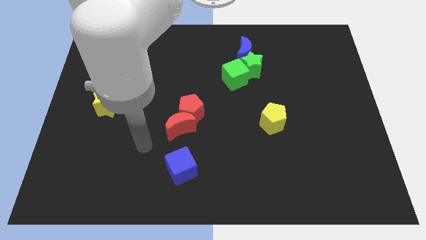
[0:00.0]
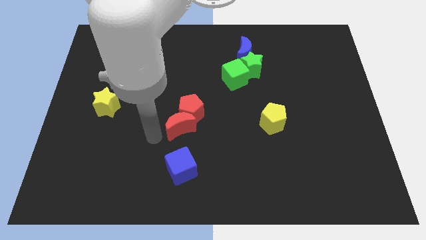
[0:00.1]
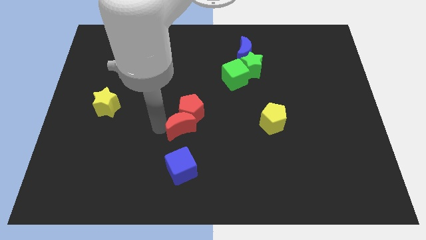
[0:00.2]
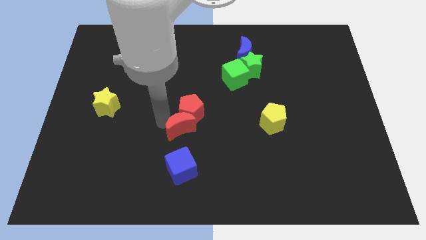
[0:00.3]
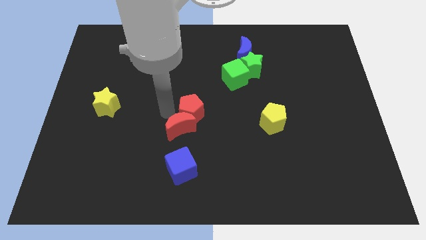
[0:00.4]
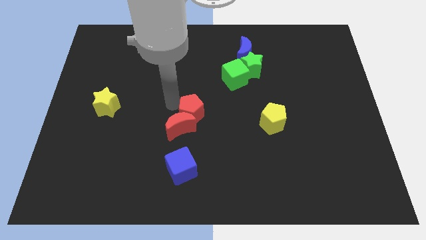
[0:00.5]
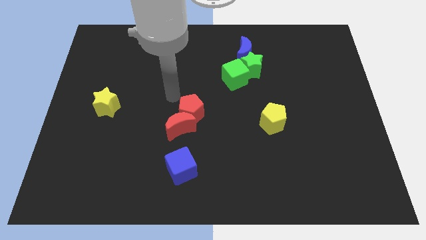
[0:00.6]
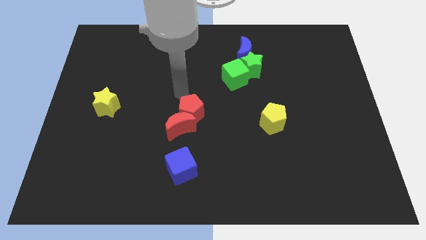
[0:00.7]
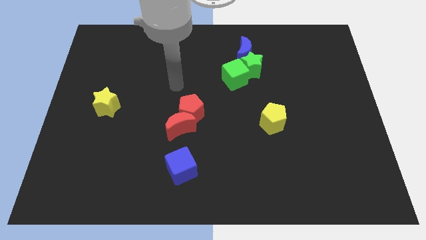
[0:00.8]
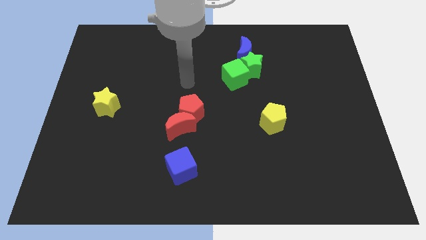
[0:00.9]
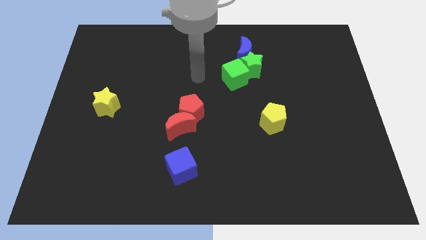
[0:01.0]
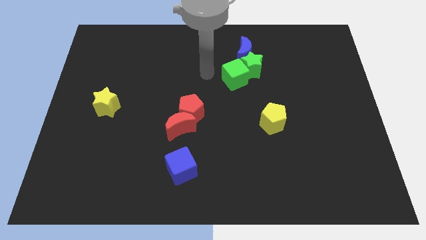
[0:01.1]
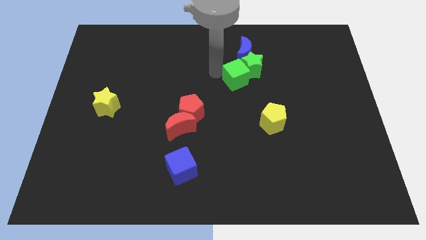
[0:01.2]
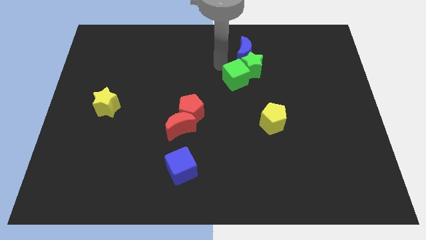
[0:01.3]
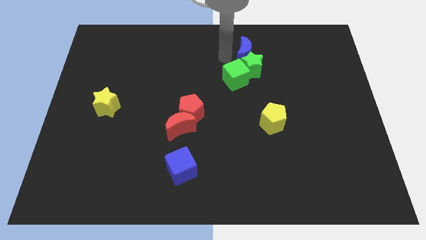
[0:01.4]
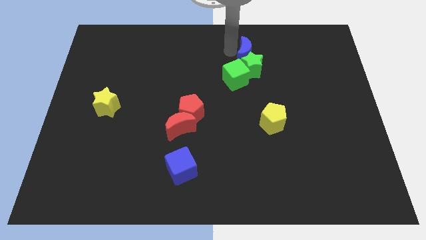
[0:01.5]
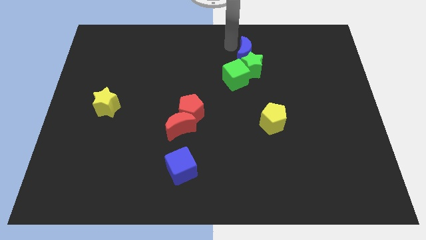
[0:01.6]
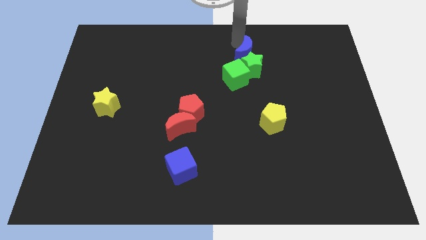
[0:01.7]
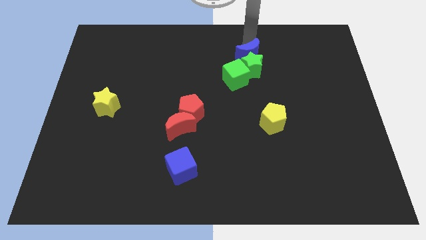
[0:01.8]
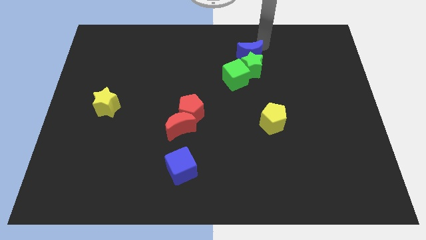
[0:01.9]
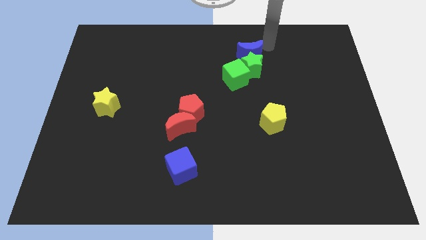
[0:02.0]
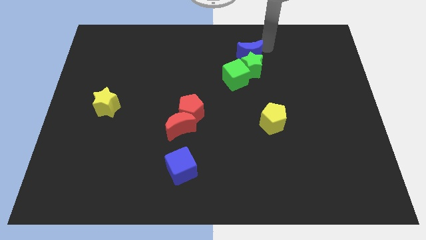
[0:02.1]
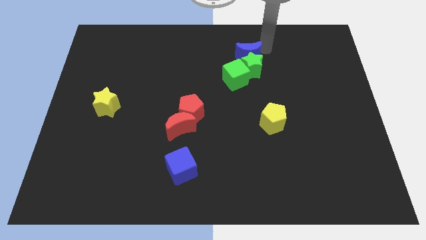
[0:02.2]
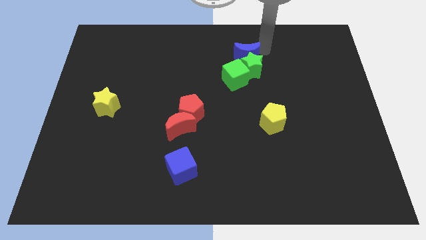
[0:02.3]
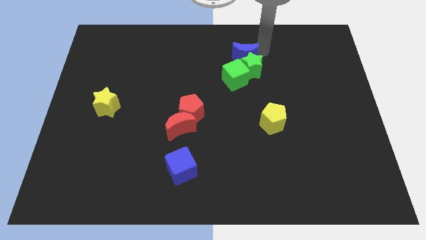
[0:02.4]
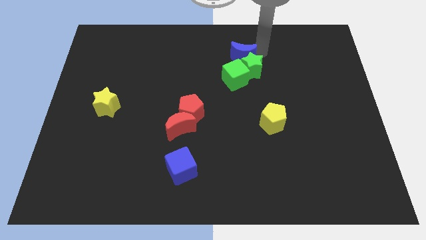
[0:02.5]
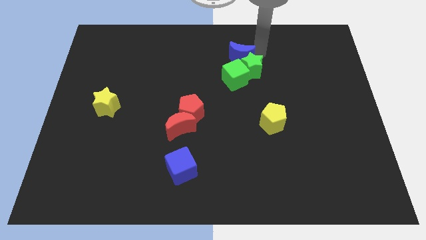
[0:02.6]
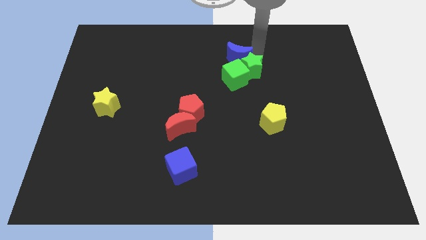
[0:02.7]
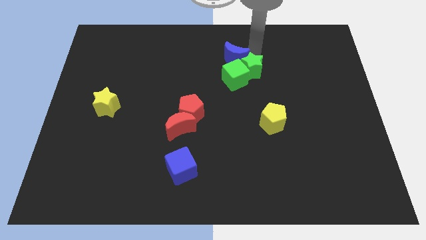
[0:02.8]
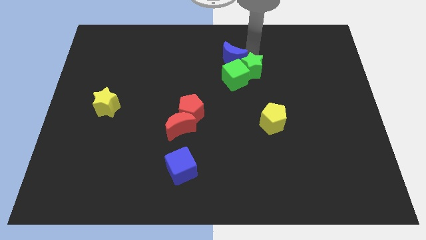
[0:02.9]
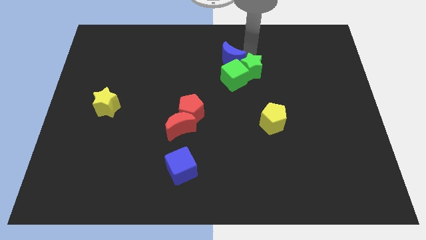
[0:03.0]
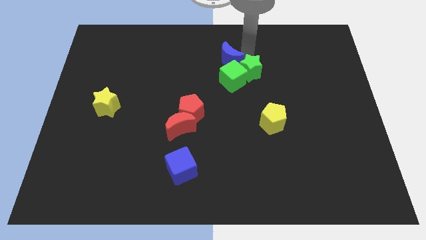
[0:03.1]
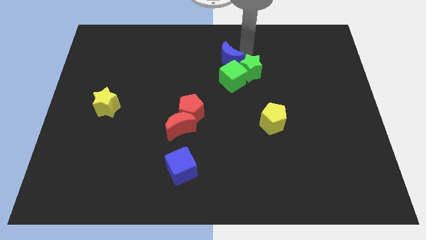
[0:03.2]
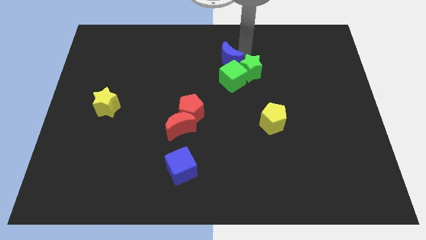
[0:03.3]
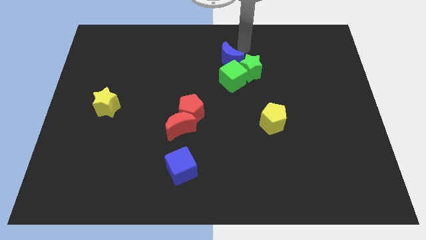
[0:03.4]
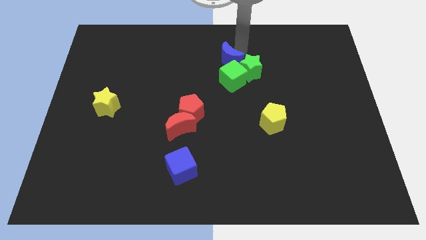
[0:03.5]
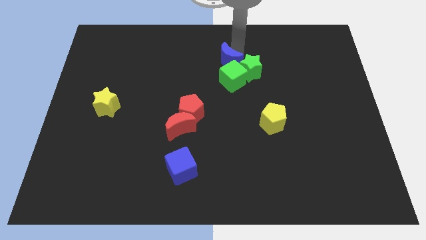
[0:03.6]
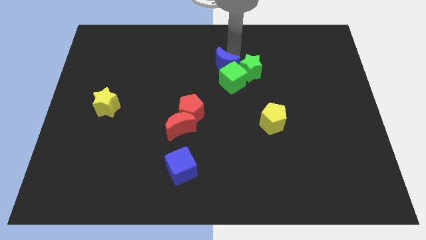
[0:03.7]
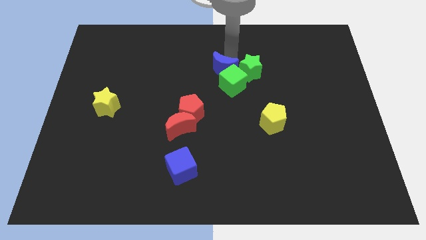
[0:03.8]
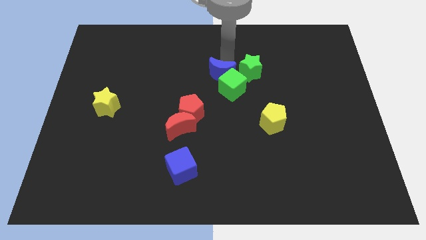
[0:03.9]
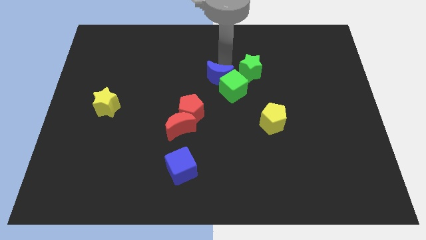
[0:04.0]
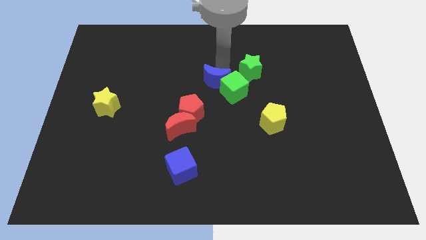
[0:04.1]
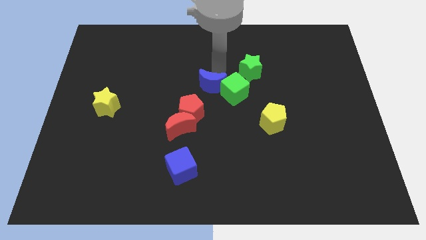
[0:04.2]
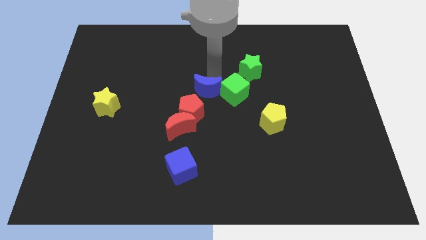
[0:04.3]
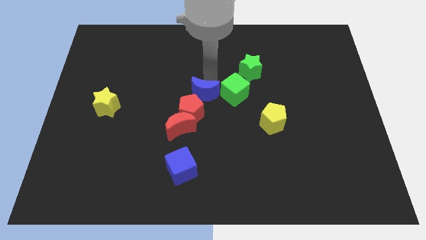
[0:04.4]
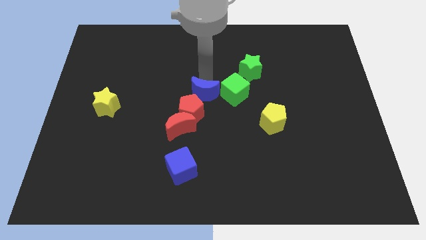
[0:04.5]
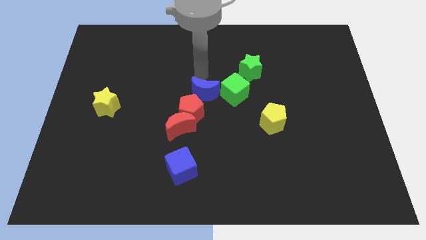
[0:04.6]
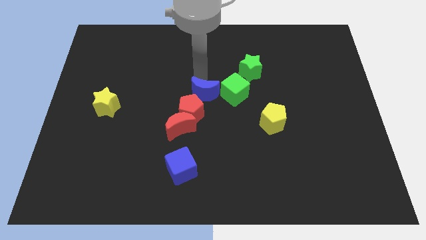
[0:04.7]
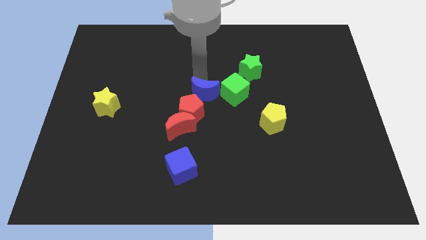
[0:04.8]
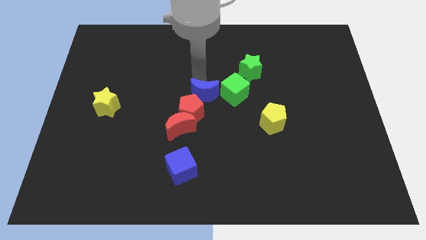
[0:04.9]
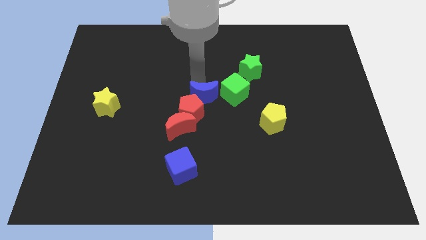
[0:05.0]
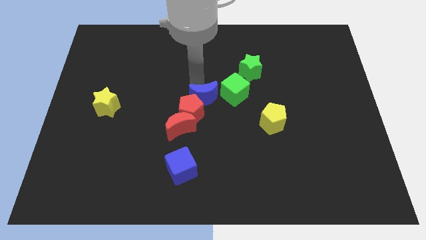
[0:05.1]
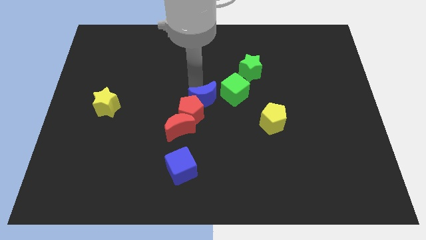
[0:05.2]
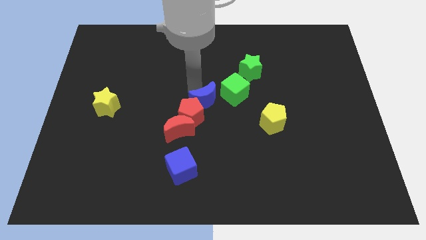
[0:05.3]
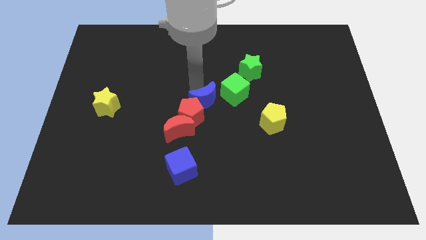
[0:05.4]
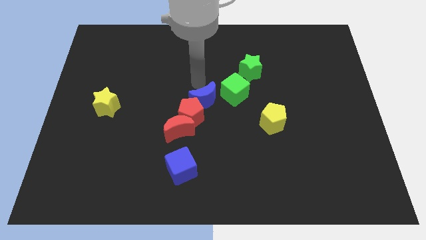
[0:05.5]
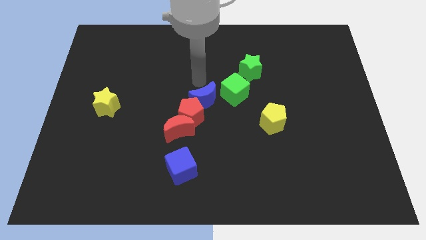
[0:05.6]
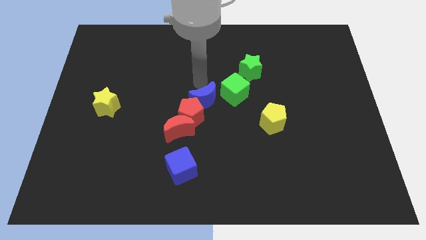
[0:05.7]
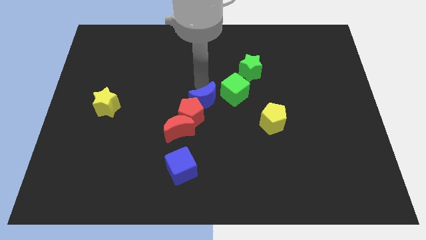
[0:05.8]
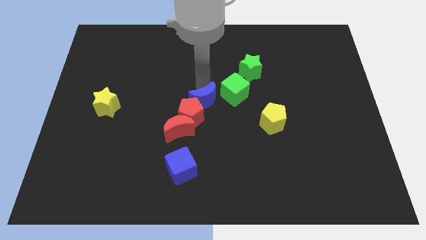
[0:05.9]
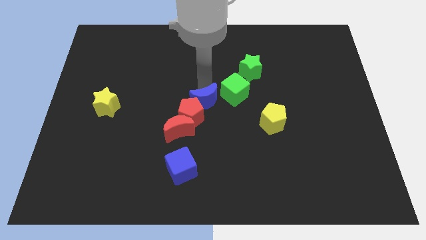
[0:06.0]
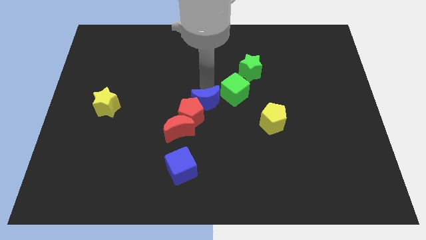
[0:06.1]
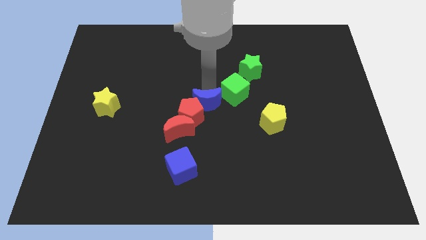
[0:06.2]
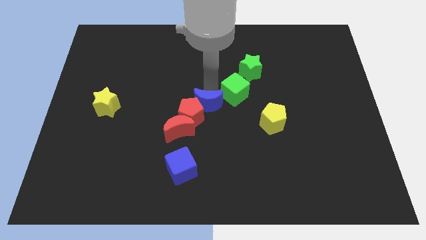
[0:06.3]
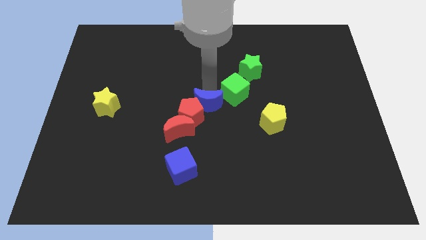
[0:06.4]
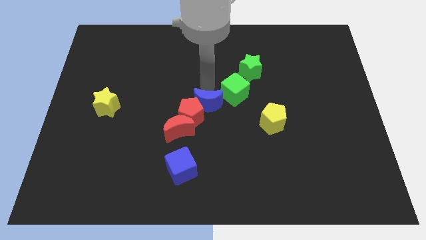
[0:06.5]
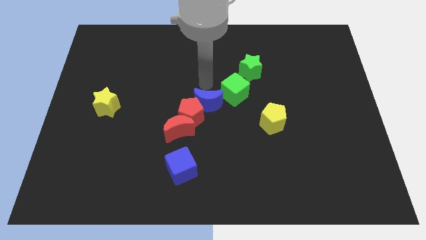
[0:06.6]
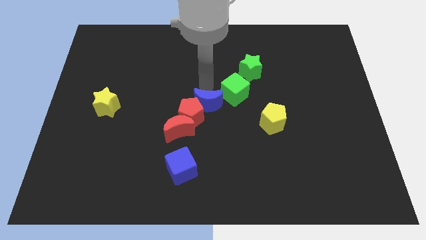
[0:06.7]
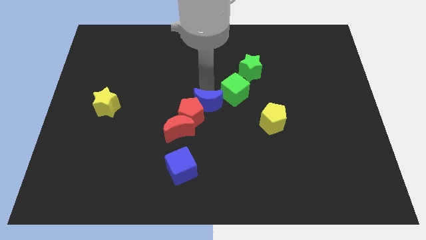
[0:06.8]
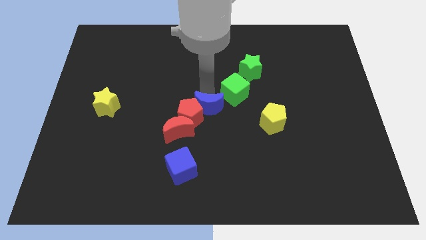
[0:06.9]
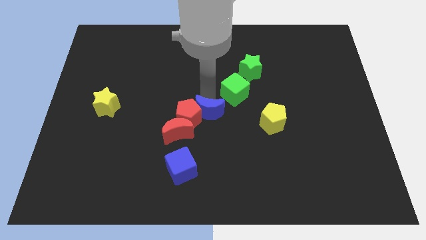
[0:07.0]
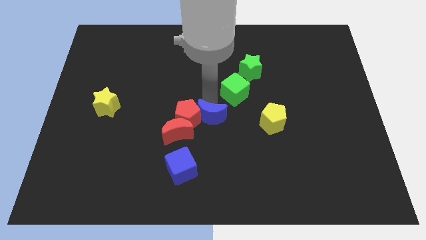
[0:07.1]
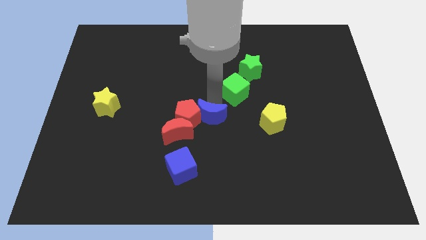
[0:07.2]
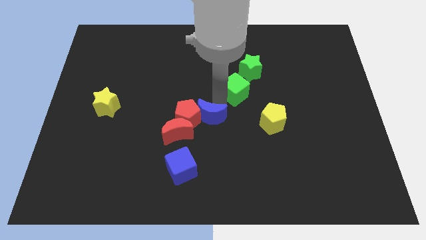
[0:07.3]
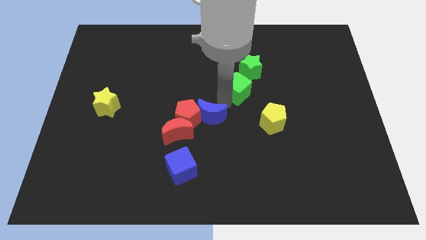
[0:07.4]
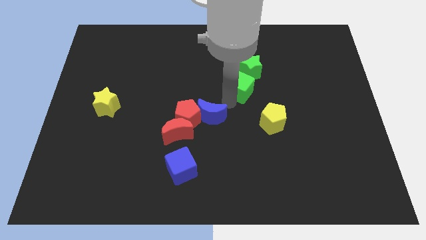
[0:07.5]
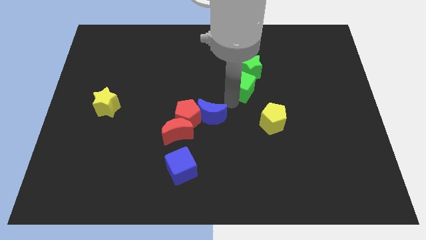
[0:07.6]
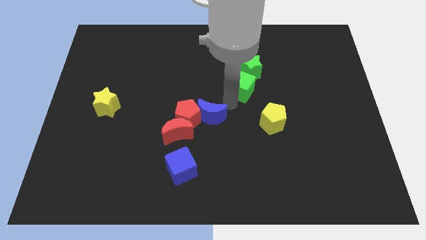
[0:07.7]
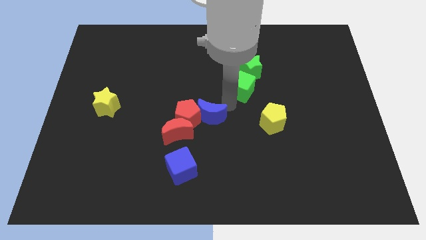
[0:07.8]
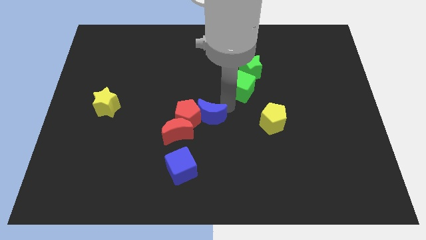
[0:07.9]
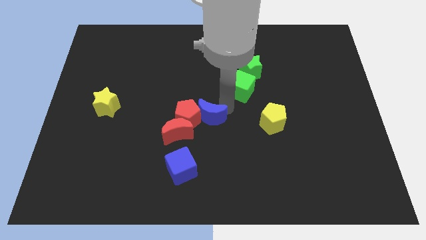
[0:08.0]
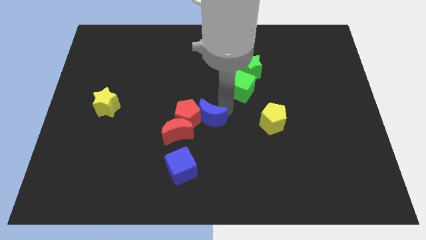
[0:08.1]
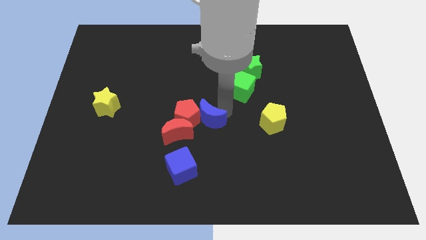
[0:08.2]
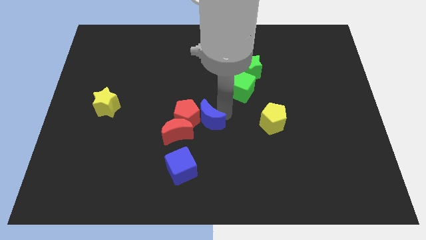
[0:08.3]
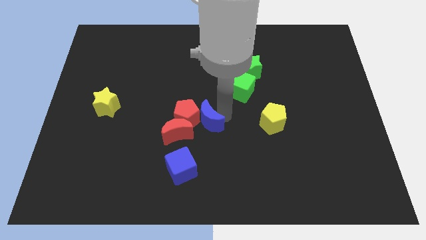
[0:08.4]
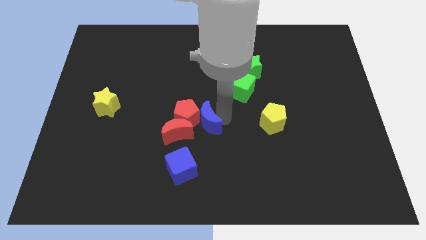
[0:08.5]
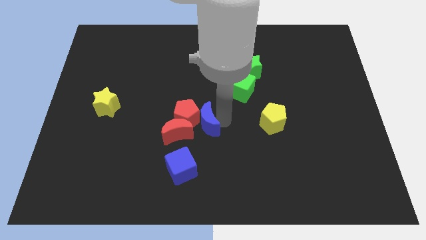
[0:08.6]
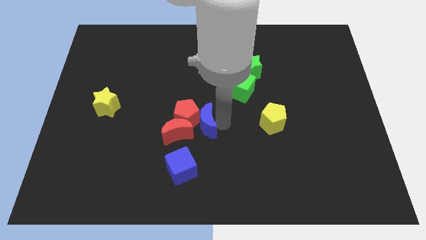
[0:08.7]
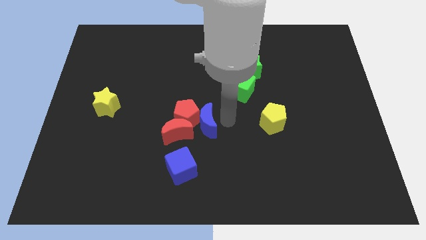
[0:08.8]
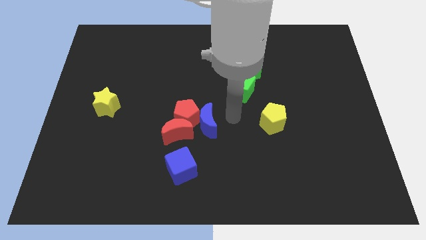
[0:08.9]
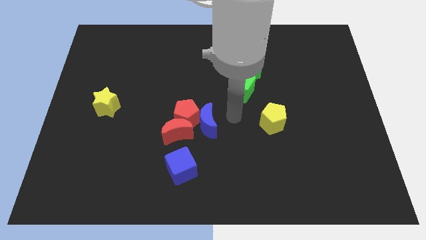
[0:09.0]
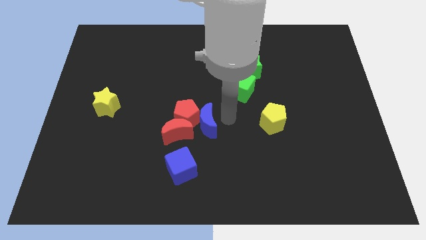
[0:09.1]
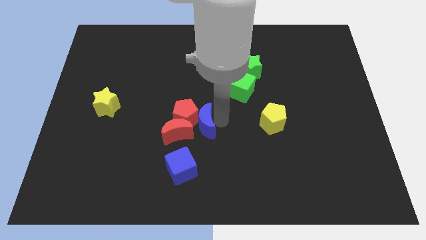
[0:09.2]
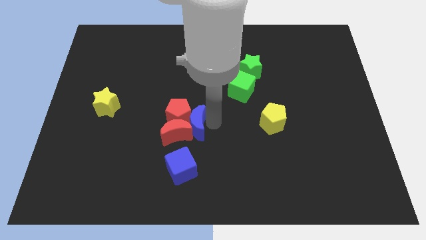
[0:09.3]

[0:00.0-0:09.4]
move the blue moon close to the red moon
